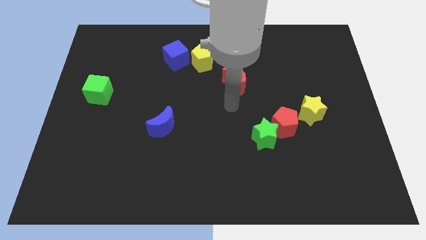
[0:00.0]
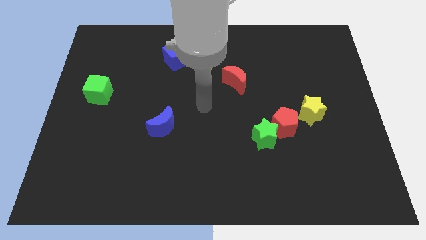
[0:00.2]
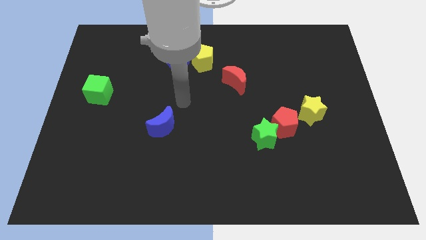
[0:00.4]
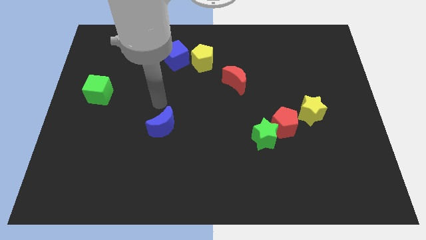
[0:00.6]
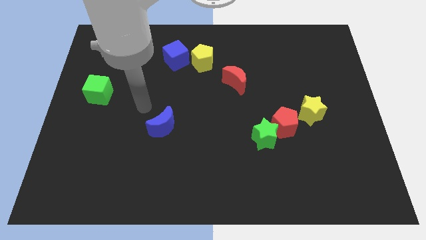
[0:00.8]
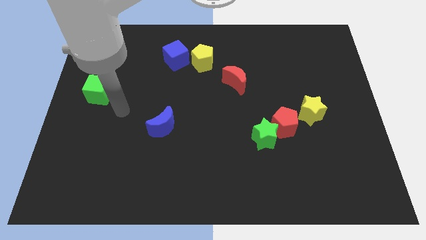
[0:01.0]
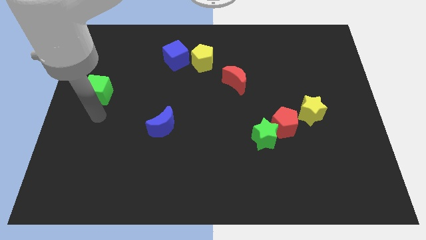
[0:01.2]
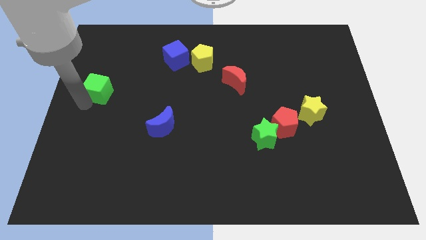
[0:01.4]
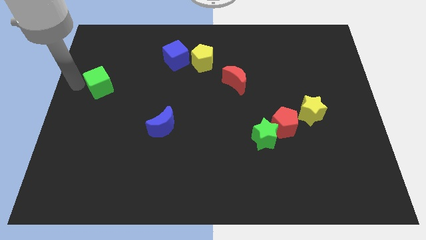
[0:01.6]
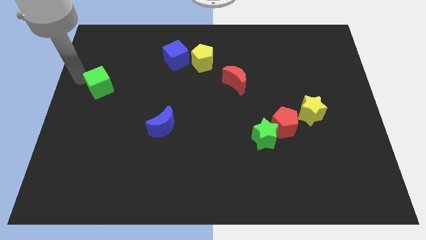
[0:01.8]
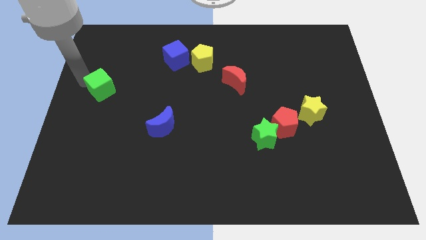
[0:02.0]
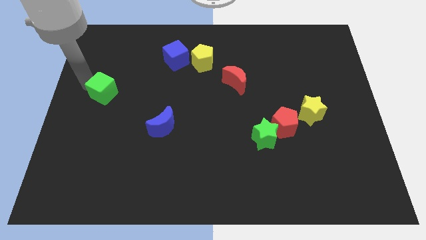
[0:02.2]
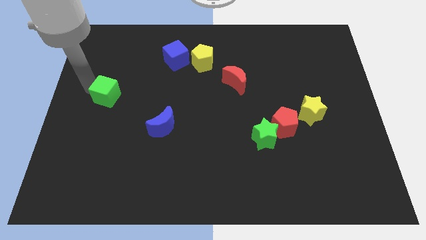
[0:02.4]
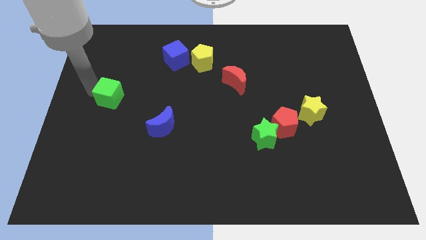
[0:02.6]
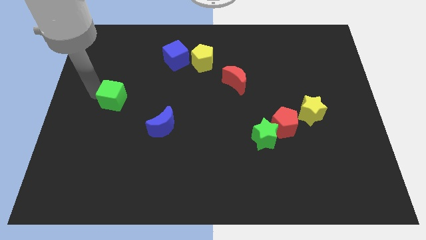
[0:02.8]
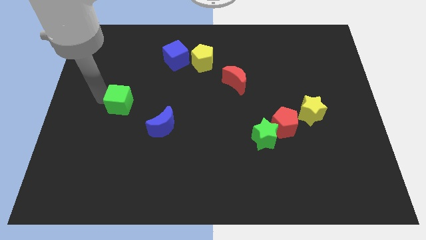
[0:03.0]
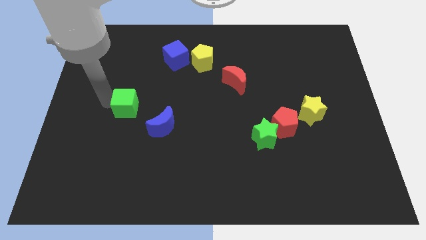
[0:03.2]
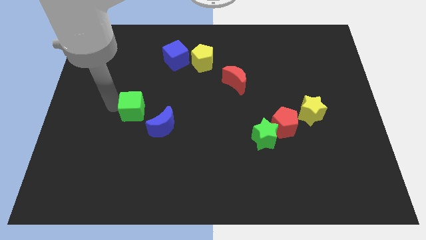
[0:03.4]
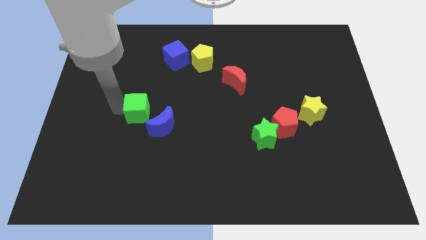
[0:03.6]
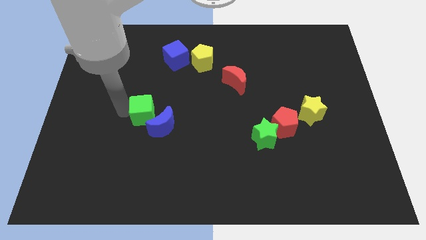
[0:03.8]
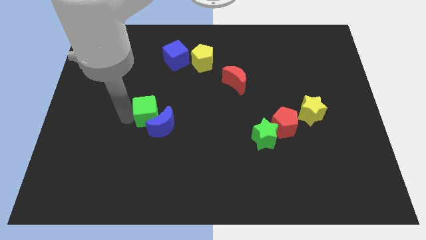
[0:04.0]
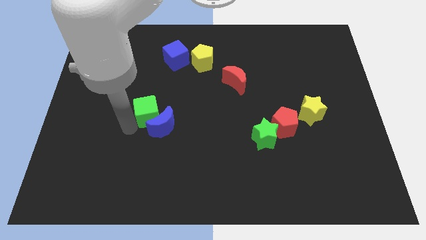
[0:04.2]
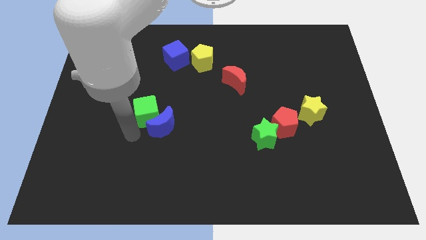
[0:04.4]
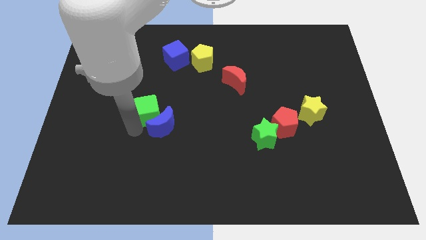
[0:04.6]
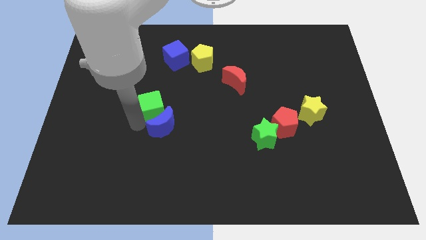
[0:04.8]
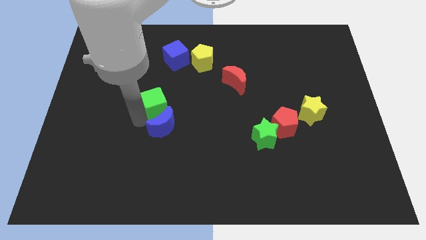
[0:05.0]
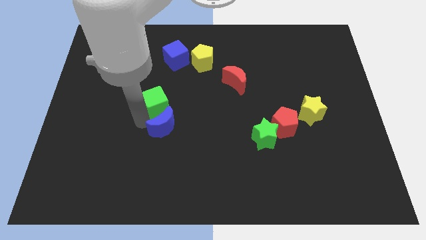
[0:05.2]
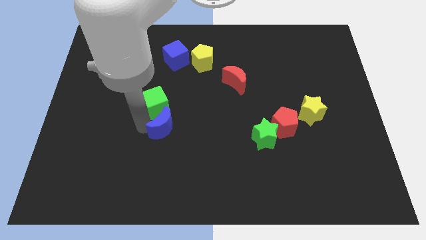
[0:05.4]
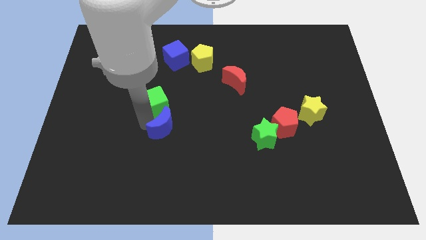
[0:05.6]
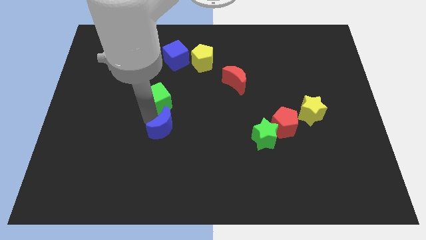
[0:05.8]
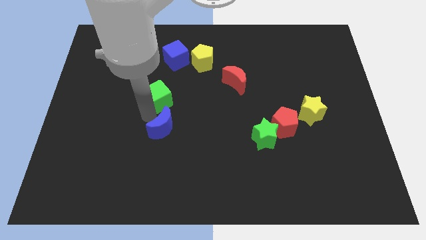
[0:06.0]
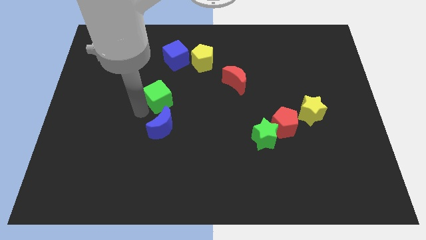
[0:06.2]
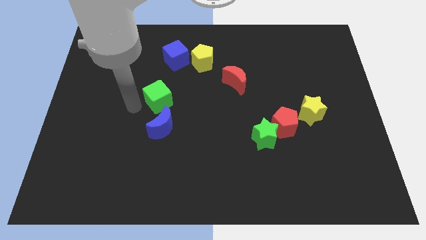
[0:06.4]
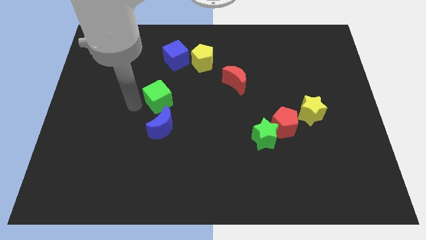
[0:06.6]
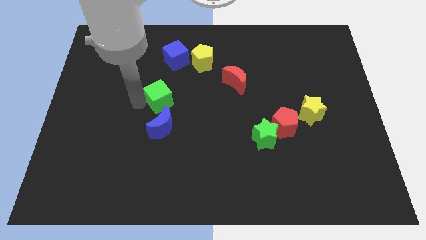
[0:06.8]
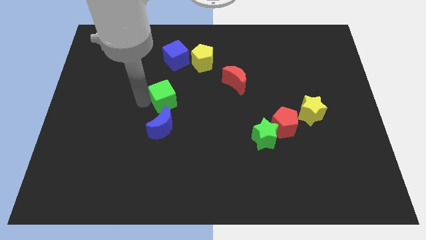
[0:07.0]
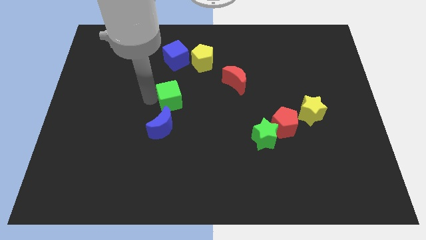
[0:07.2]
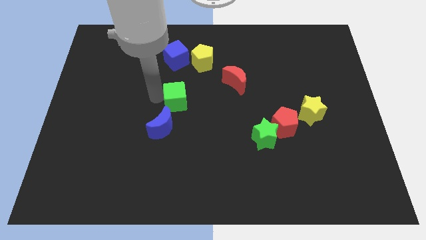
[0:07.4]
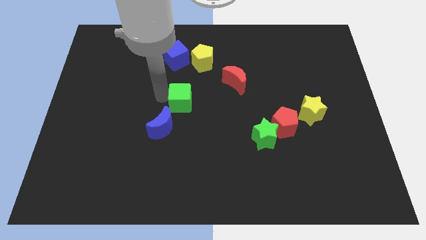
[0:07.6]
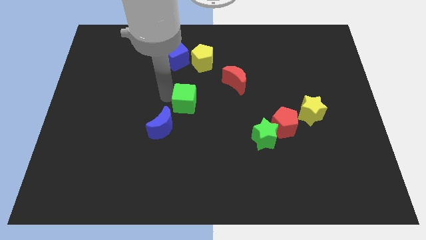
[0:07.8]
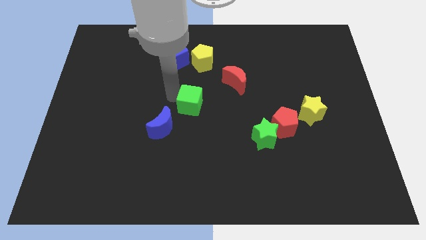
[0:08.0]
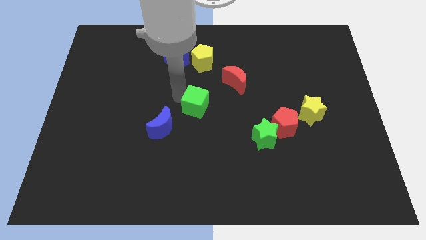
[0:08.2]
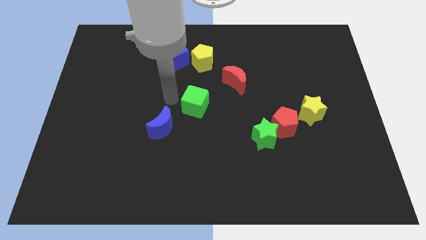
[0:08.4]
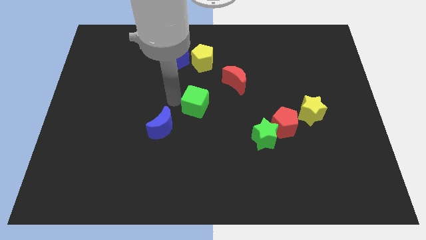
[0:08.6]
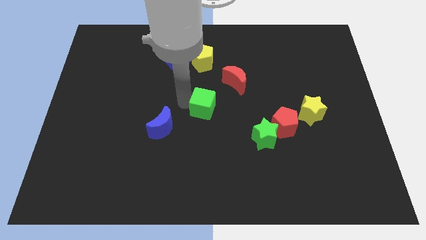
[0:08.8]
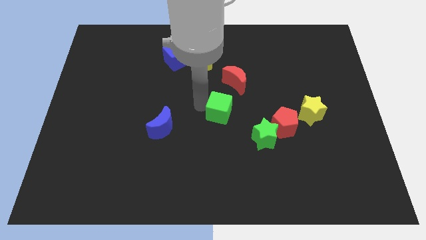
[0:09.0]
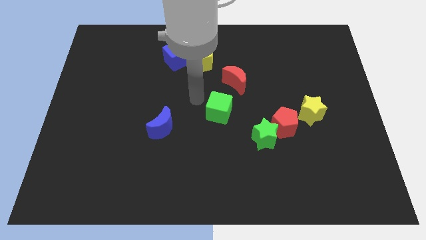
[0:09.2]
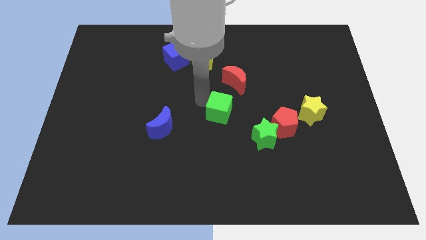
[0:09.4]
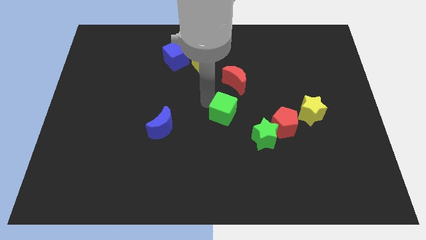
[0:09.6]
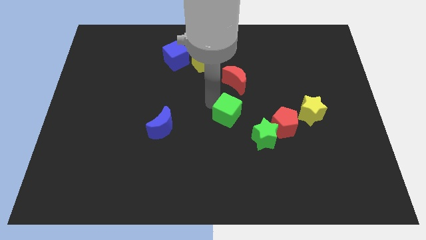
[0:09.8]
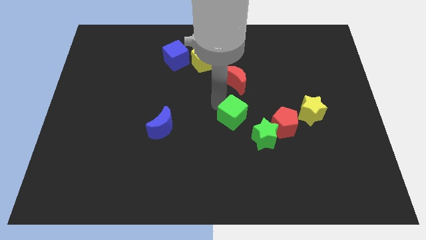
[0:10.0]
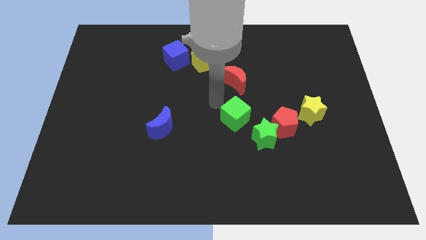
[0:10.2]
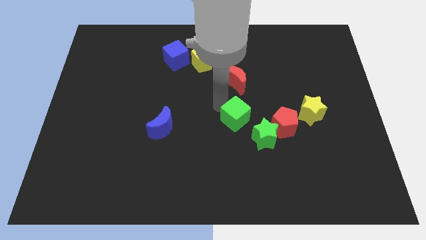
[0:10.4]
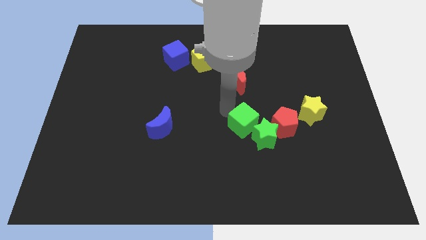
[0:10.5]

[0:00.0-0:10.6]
push the green cube close to the green star
